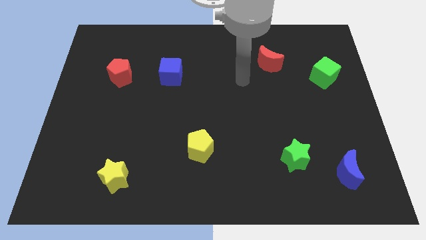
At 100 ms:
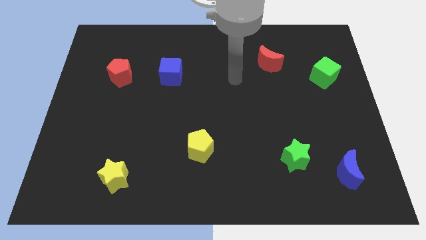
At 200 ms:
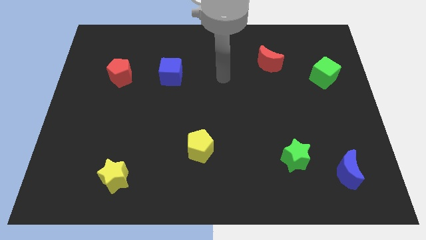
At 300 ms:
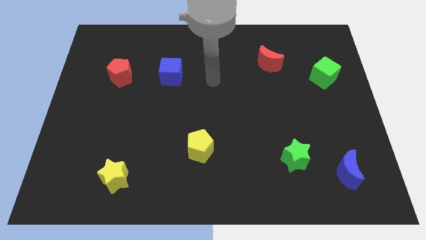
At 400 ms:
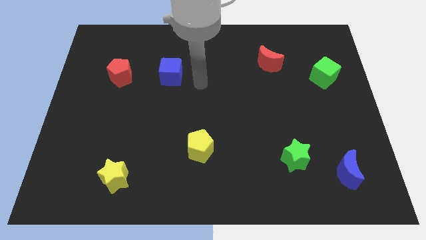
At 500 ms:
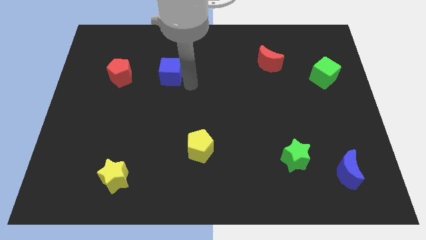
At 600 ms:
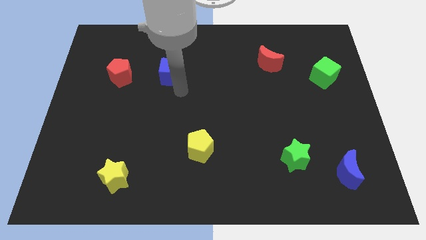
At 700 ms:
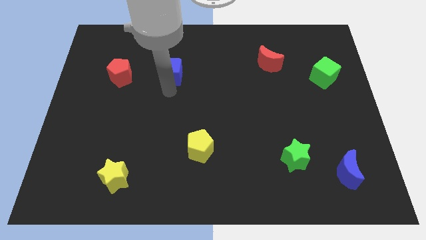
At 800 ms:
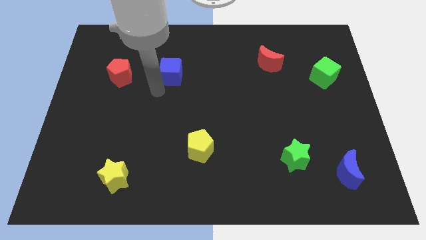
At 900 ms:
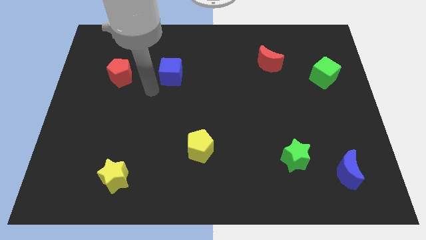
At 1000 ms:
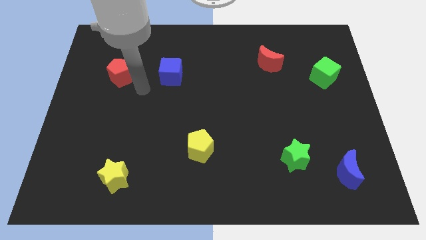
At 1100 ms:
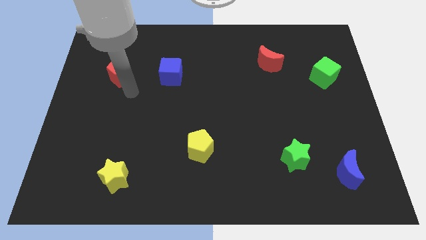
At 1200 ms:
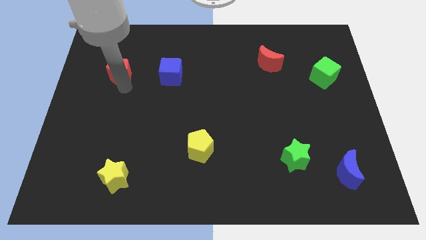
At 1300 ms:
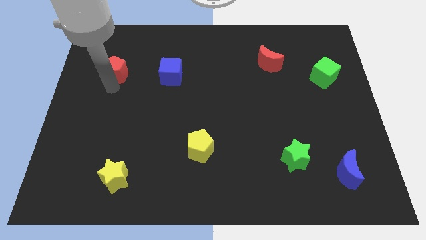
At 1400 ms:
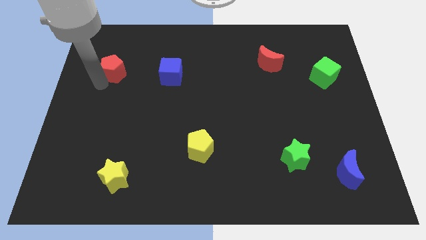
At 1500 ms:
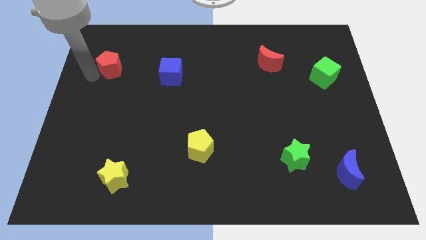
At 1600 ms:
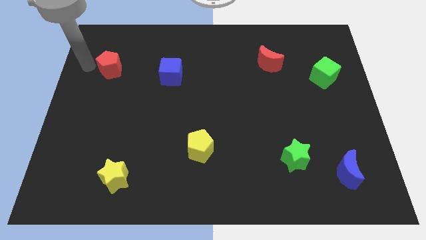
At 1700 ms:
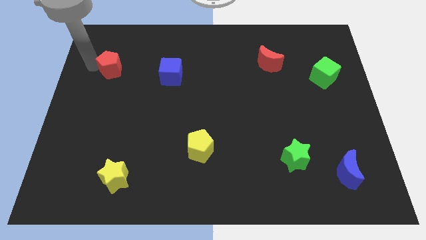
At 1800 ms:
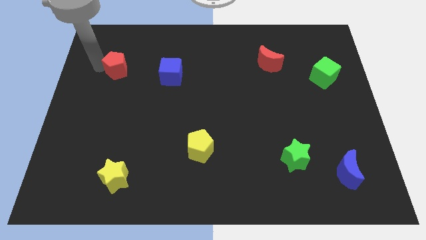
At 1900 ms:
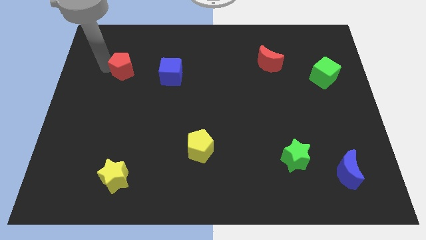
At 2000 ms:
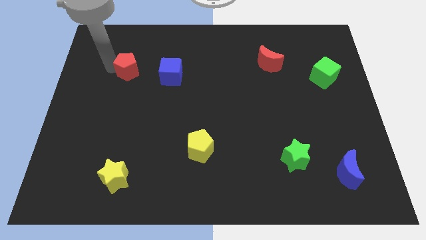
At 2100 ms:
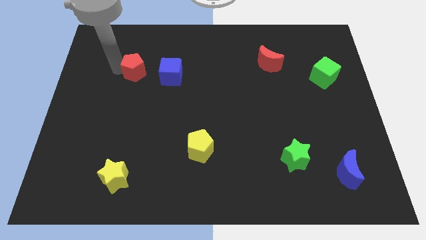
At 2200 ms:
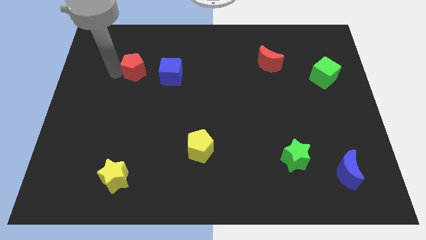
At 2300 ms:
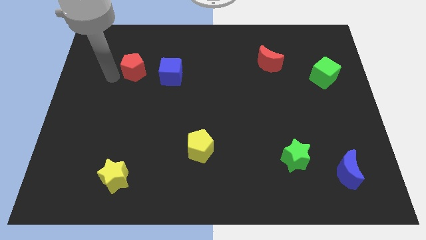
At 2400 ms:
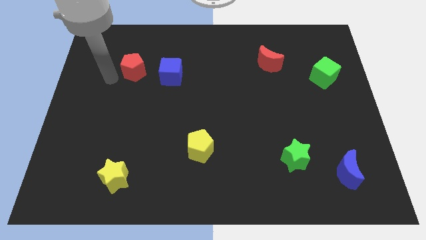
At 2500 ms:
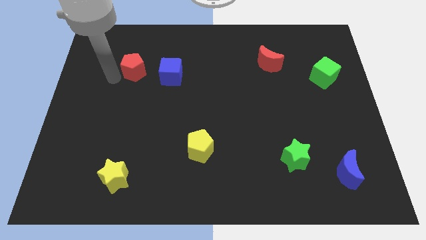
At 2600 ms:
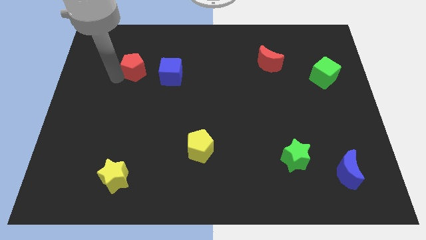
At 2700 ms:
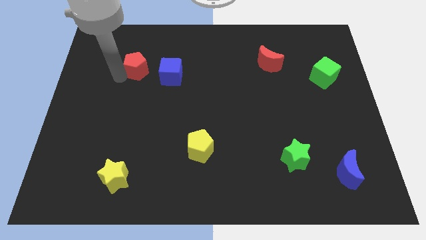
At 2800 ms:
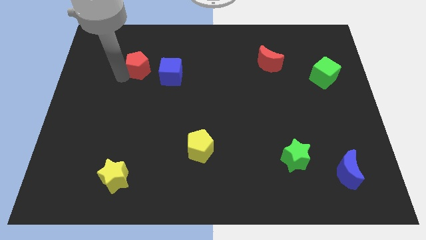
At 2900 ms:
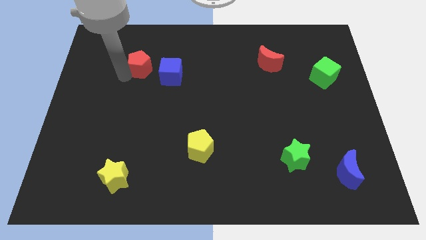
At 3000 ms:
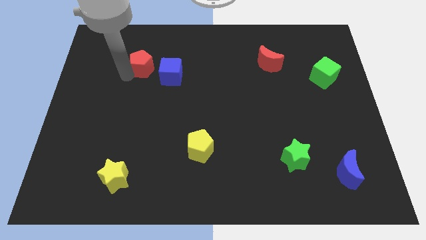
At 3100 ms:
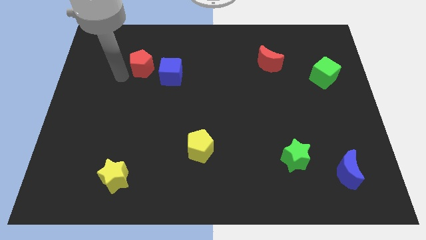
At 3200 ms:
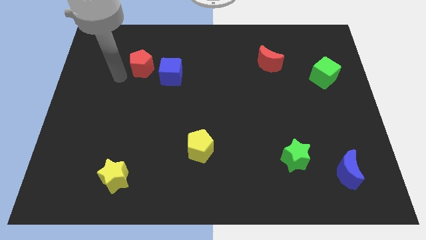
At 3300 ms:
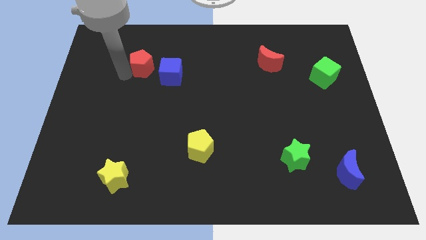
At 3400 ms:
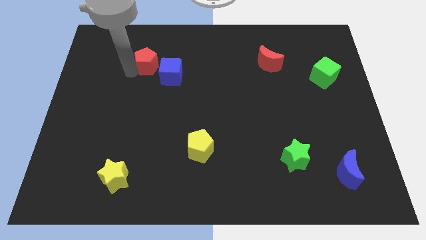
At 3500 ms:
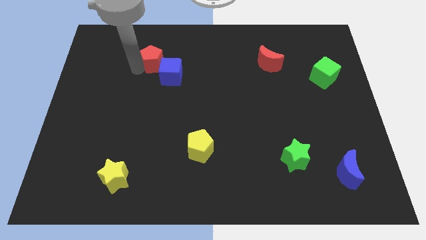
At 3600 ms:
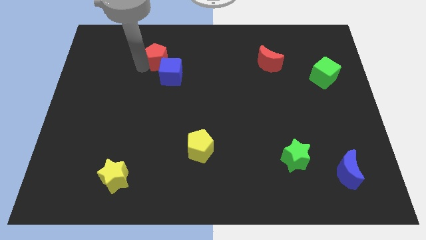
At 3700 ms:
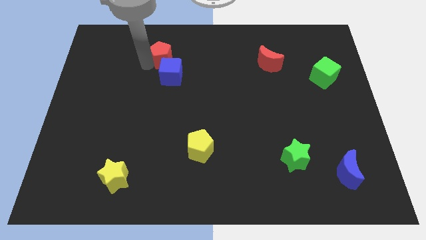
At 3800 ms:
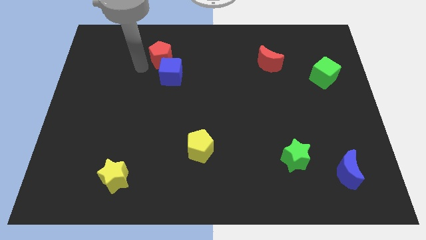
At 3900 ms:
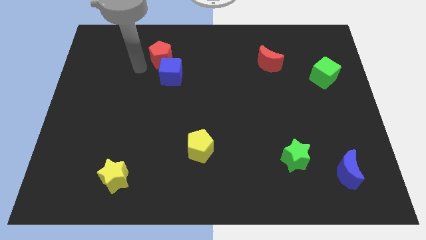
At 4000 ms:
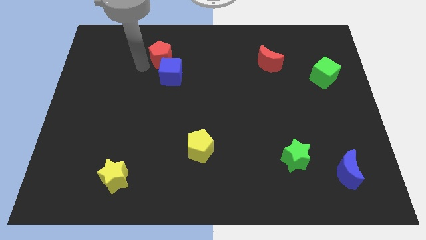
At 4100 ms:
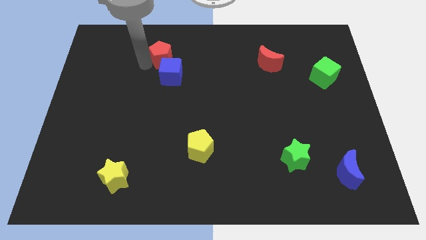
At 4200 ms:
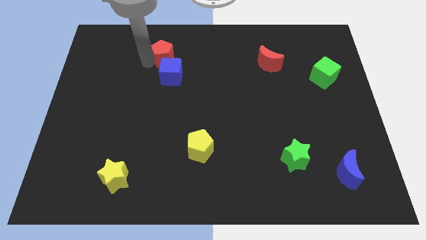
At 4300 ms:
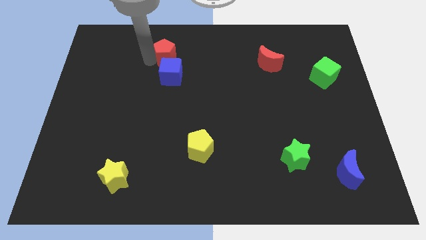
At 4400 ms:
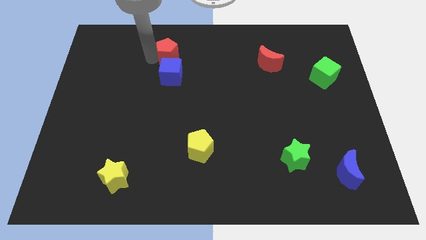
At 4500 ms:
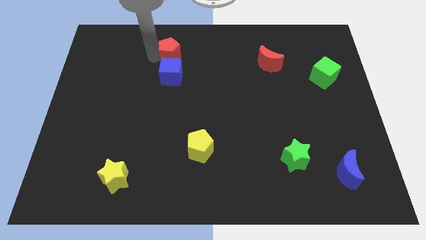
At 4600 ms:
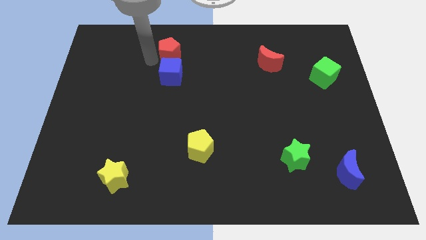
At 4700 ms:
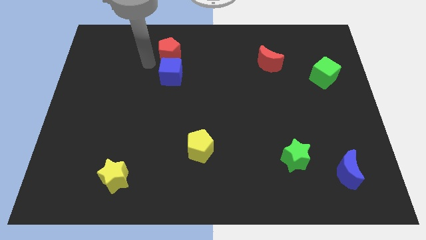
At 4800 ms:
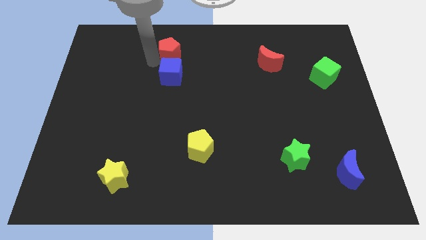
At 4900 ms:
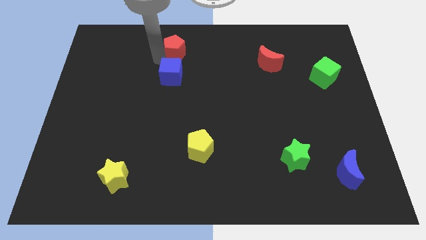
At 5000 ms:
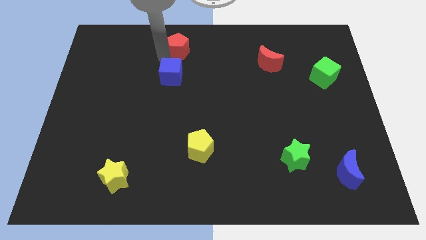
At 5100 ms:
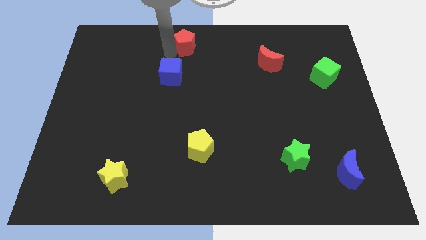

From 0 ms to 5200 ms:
move the red pentagon to the towards your base

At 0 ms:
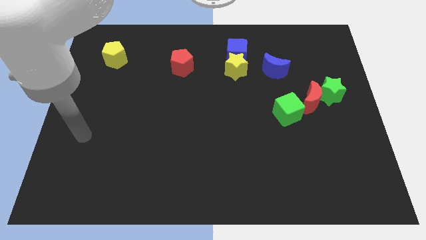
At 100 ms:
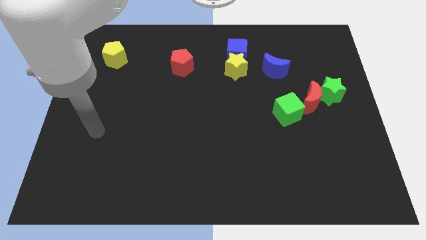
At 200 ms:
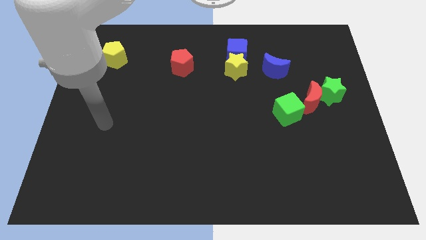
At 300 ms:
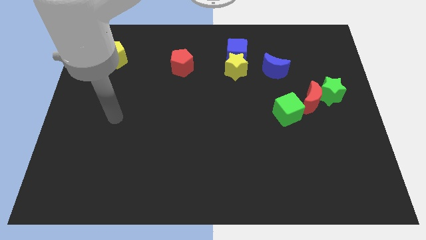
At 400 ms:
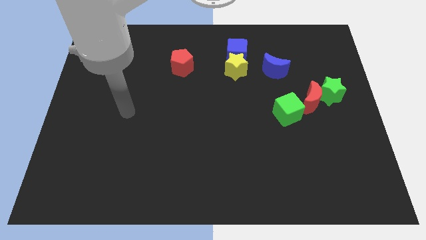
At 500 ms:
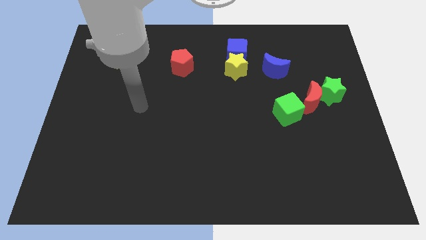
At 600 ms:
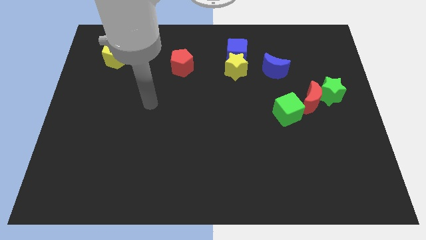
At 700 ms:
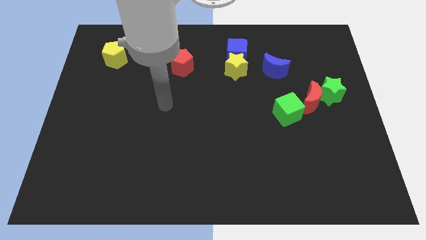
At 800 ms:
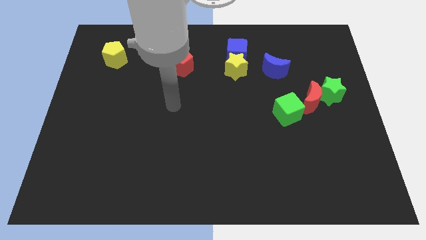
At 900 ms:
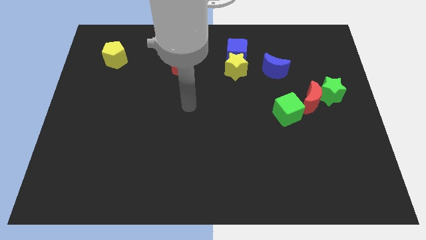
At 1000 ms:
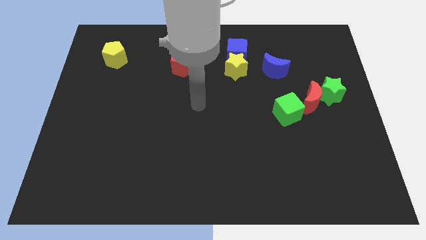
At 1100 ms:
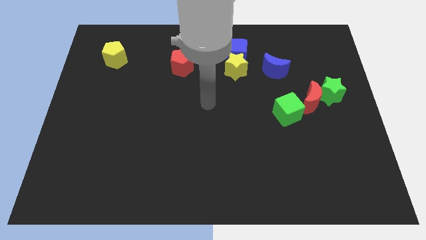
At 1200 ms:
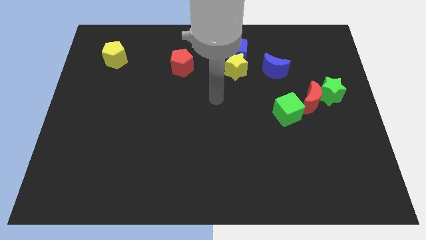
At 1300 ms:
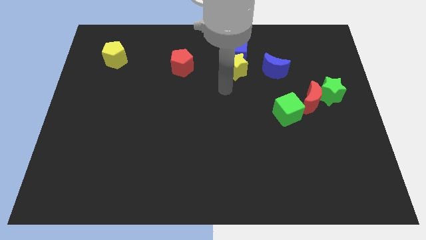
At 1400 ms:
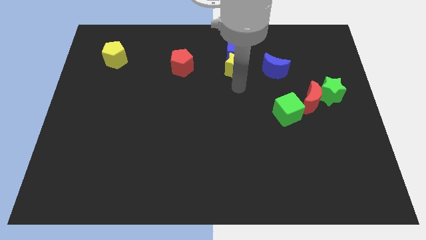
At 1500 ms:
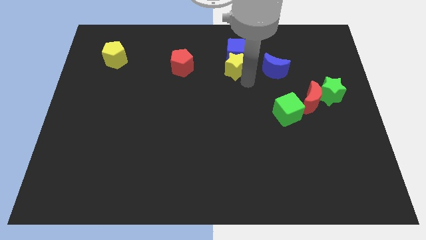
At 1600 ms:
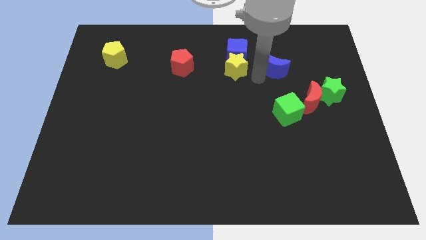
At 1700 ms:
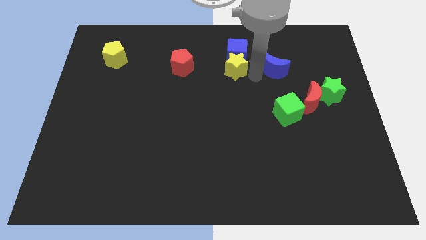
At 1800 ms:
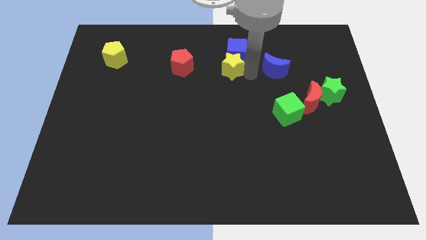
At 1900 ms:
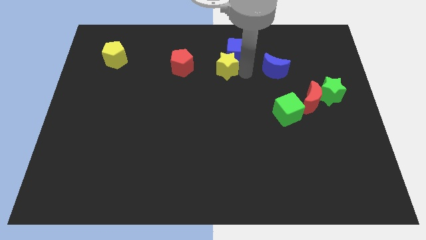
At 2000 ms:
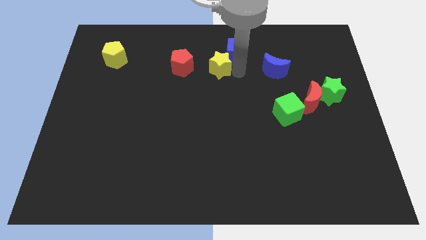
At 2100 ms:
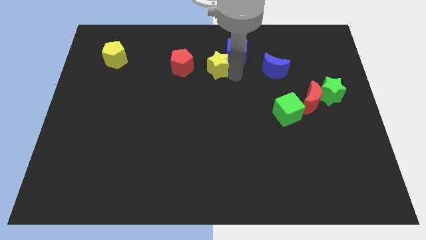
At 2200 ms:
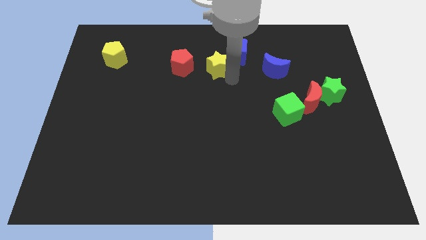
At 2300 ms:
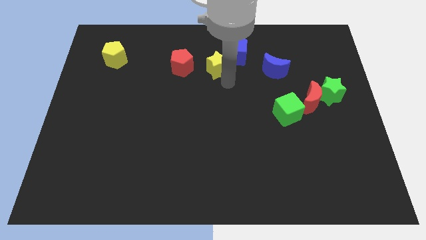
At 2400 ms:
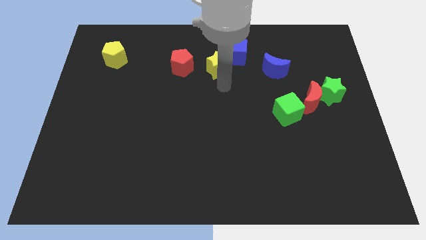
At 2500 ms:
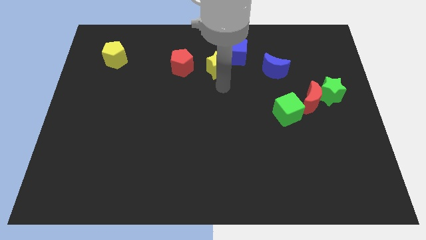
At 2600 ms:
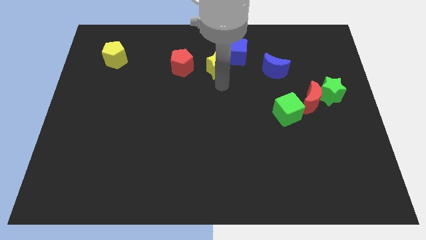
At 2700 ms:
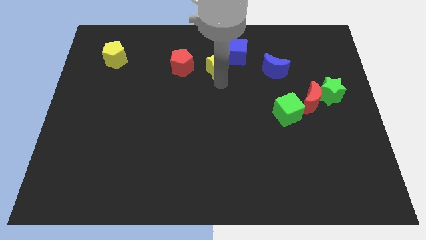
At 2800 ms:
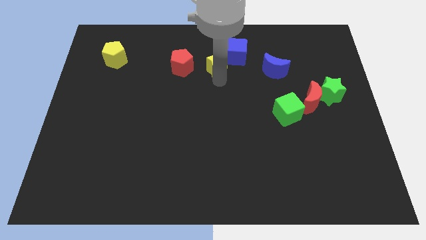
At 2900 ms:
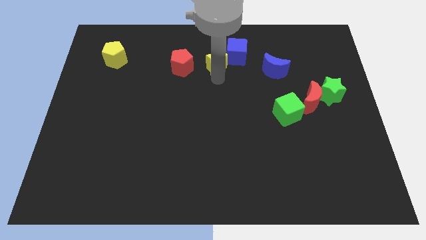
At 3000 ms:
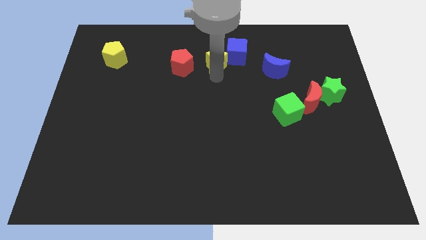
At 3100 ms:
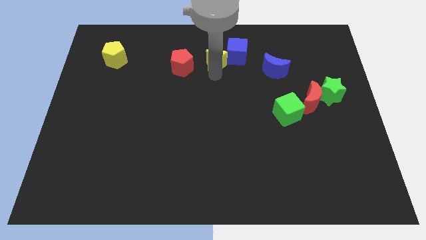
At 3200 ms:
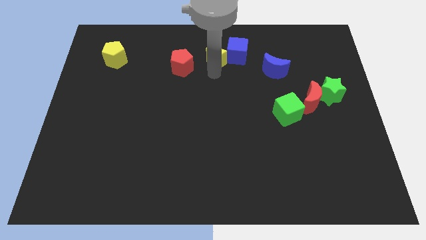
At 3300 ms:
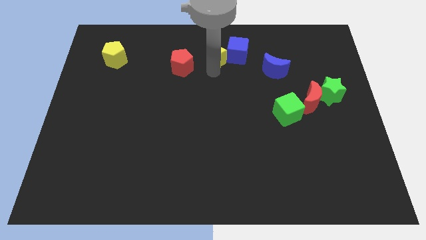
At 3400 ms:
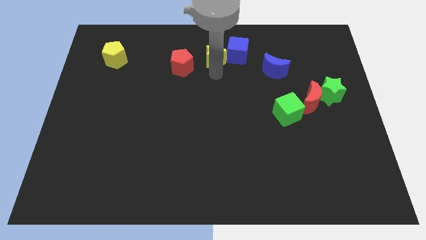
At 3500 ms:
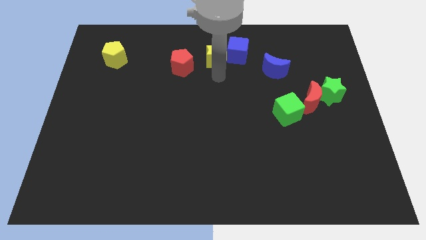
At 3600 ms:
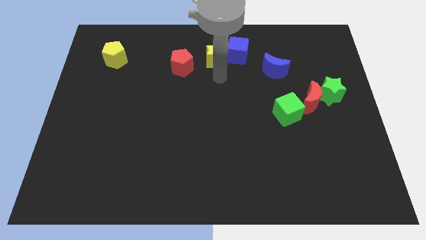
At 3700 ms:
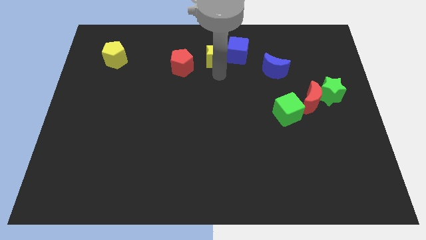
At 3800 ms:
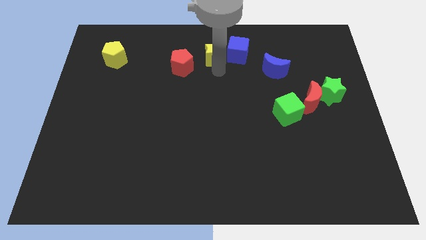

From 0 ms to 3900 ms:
put the yellow star to the towards your base
